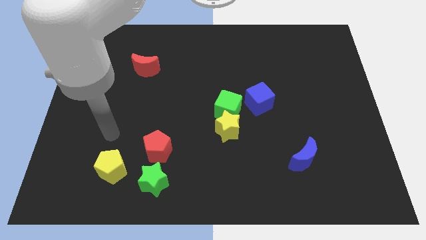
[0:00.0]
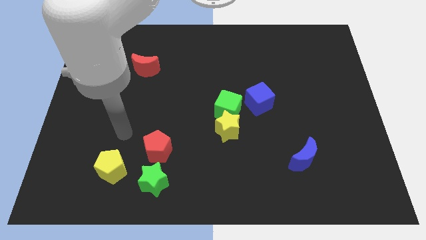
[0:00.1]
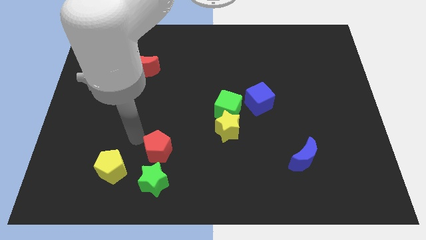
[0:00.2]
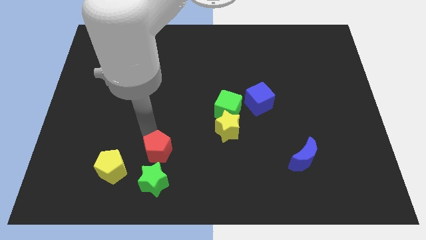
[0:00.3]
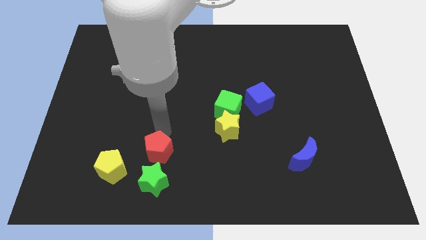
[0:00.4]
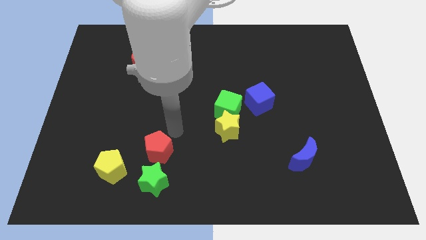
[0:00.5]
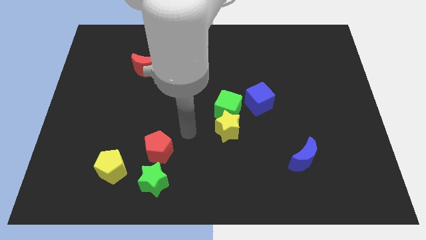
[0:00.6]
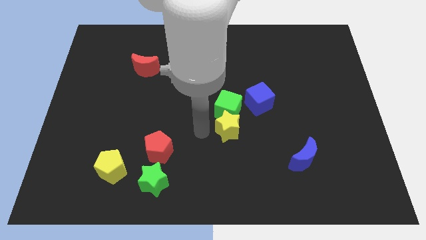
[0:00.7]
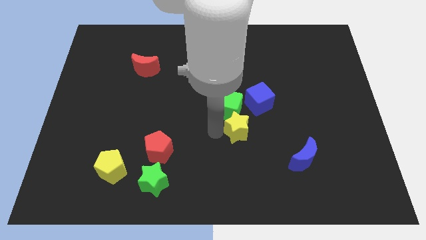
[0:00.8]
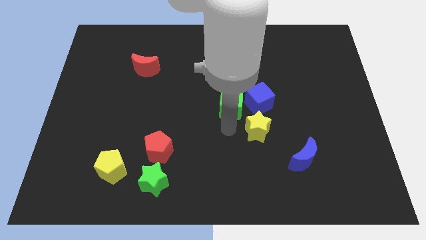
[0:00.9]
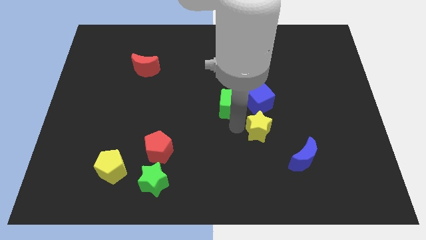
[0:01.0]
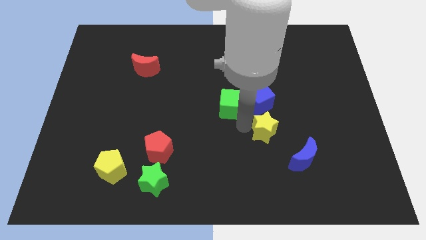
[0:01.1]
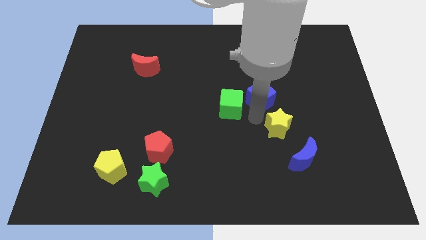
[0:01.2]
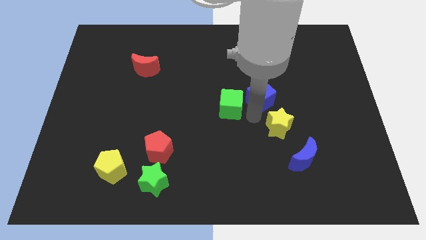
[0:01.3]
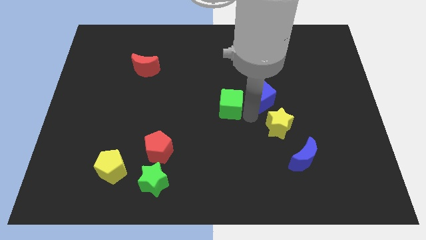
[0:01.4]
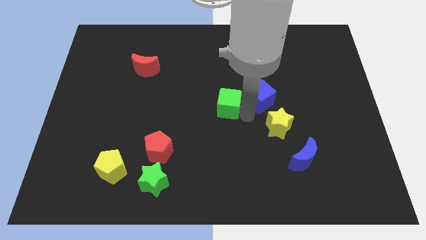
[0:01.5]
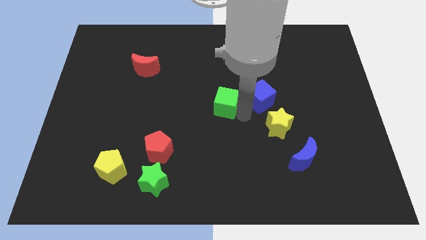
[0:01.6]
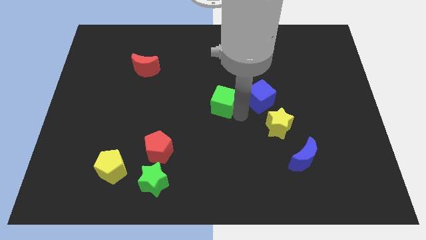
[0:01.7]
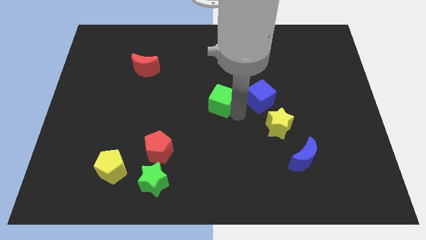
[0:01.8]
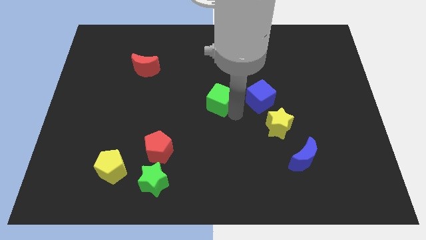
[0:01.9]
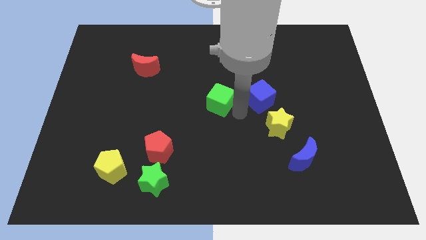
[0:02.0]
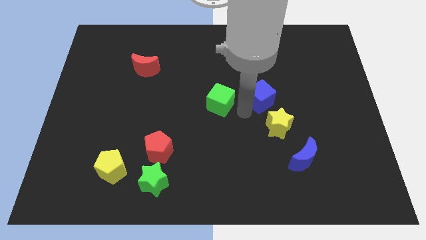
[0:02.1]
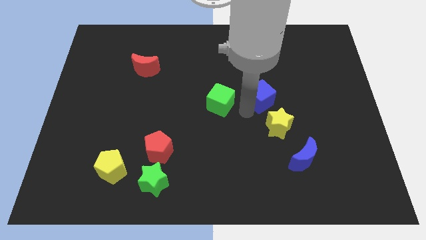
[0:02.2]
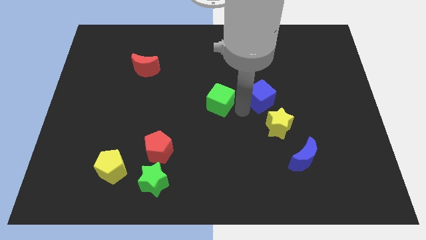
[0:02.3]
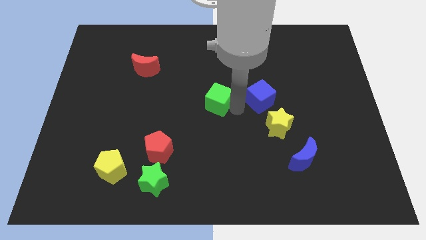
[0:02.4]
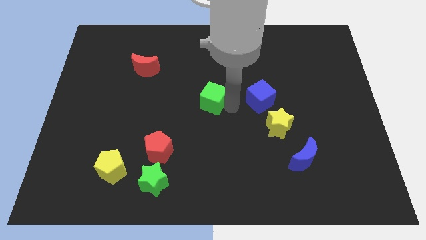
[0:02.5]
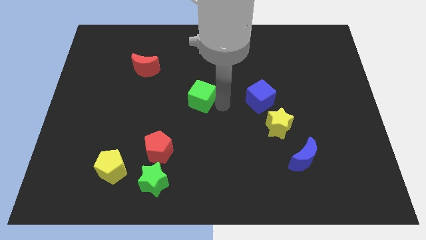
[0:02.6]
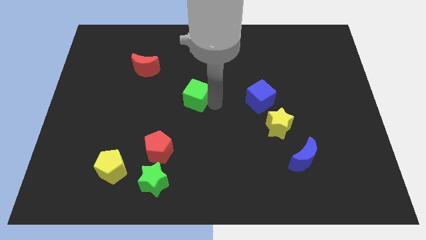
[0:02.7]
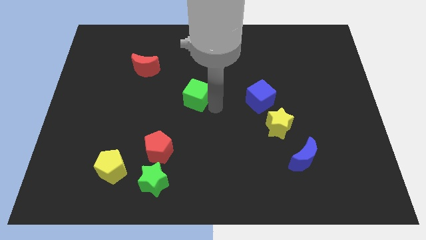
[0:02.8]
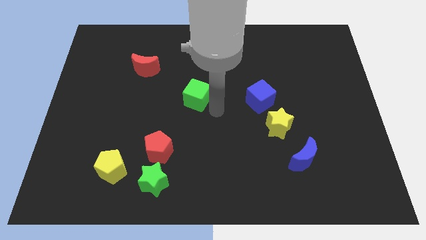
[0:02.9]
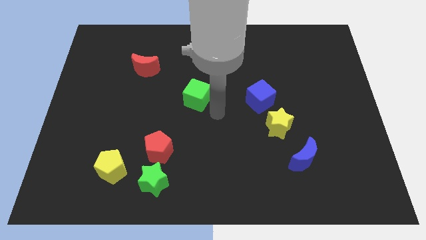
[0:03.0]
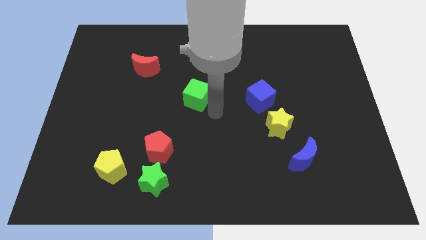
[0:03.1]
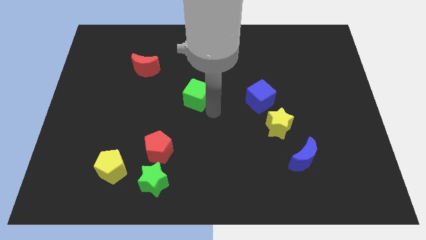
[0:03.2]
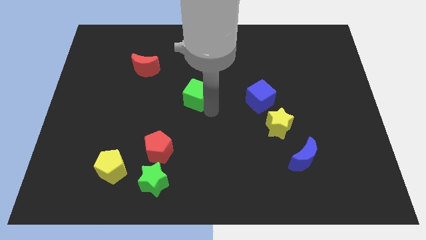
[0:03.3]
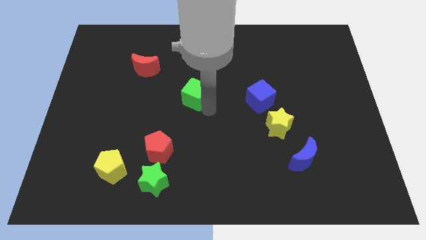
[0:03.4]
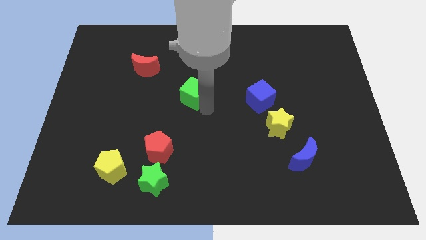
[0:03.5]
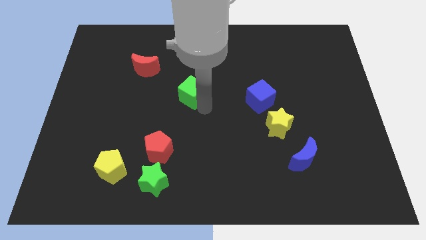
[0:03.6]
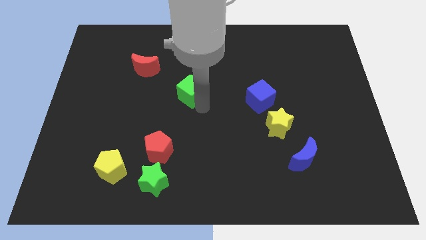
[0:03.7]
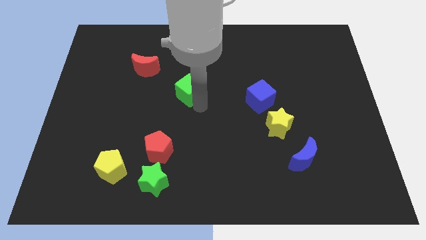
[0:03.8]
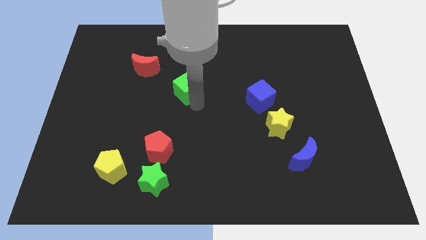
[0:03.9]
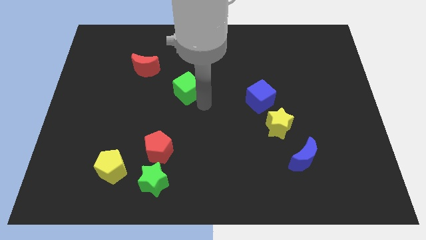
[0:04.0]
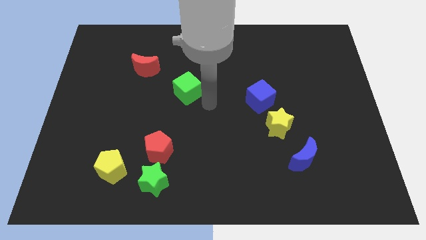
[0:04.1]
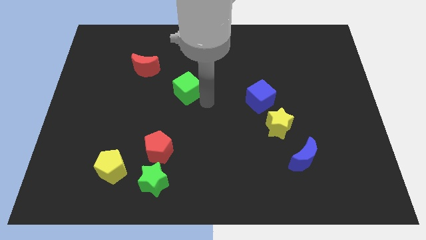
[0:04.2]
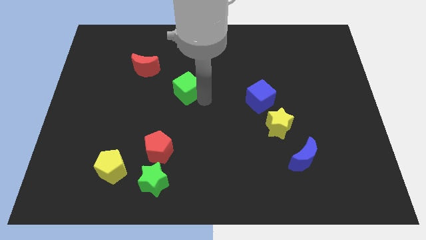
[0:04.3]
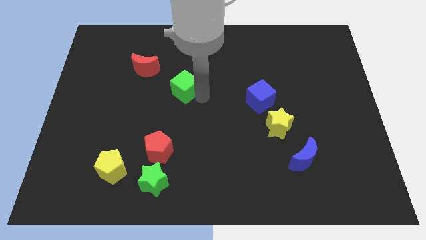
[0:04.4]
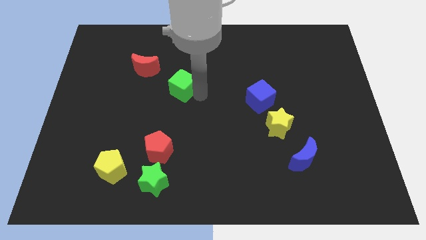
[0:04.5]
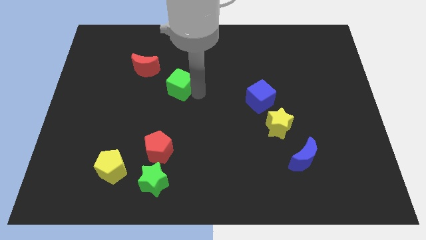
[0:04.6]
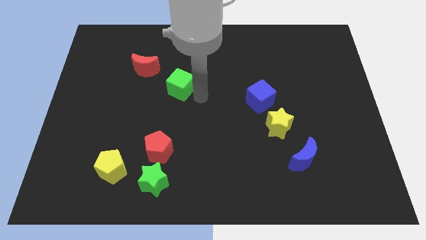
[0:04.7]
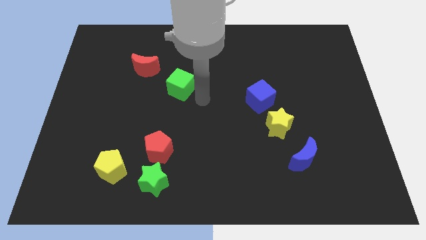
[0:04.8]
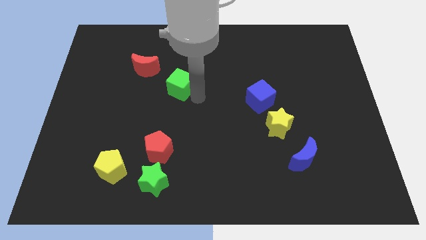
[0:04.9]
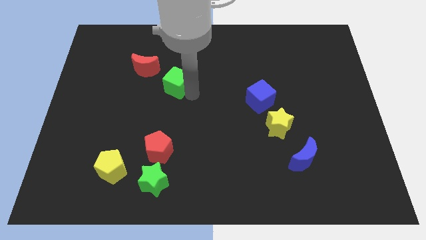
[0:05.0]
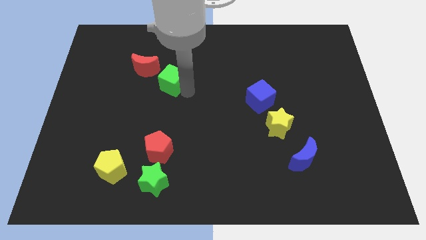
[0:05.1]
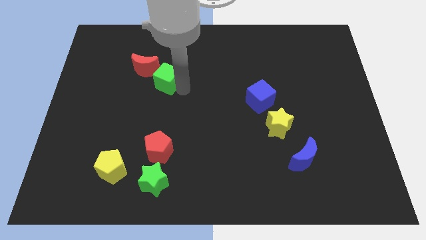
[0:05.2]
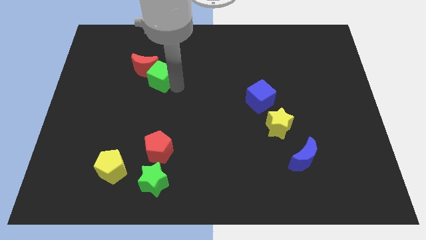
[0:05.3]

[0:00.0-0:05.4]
push the green cube towards the red moon

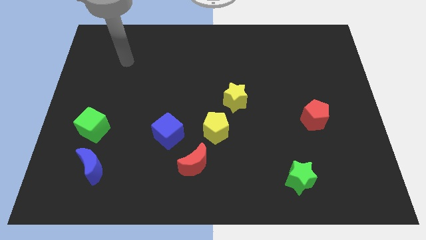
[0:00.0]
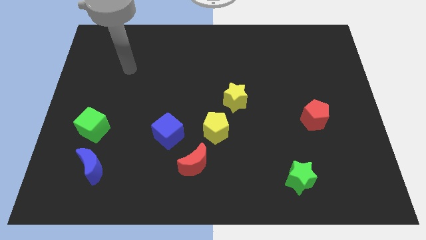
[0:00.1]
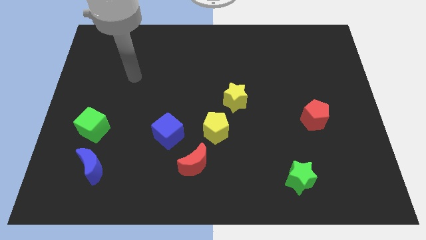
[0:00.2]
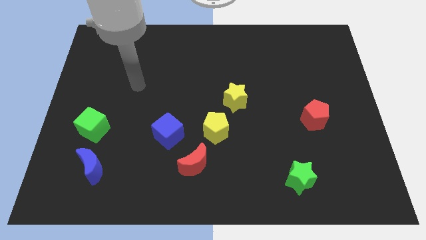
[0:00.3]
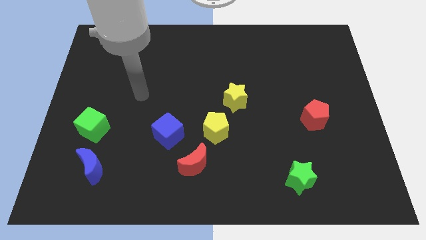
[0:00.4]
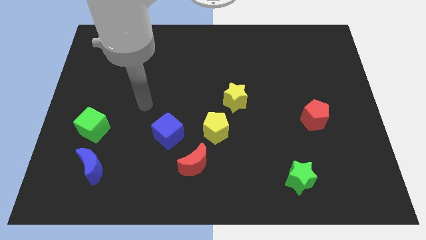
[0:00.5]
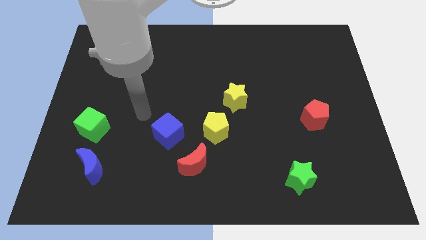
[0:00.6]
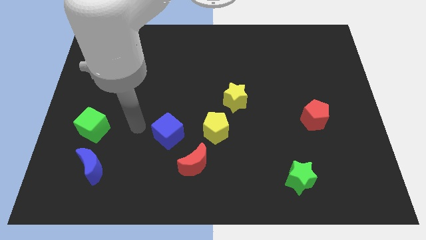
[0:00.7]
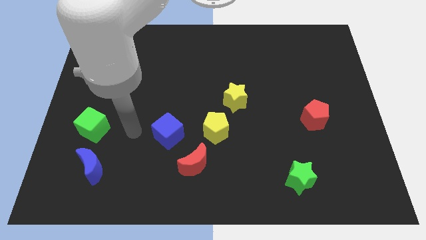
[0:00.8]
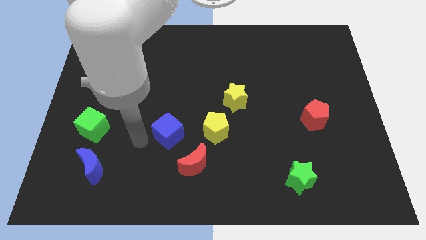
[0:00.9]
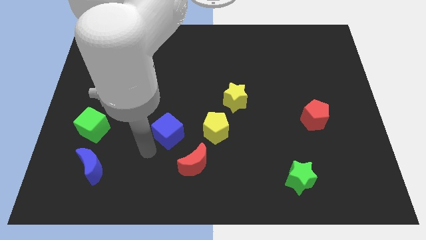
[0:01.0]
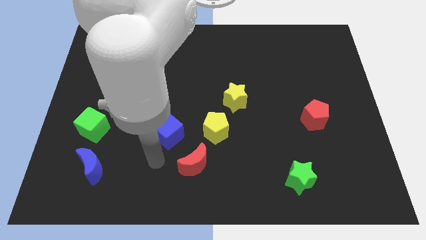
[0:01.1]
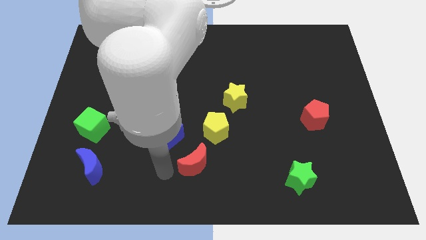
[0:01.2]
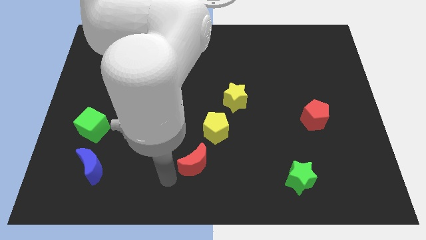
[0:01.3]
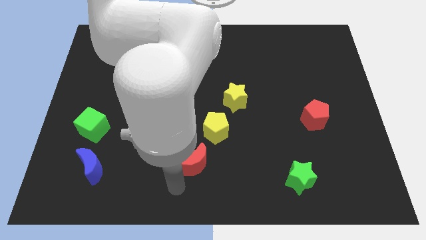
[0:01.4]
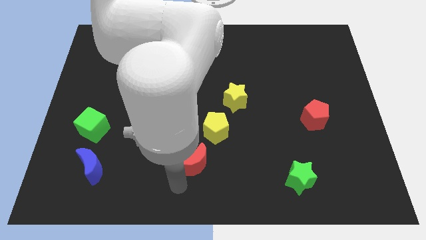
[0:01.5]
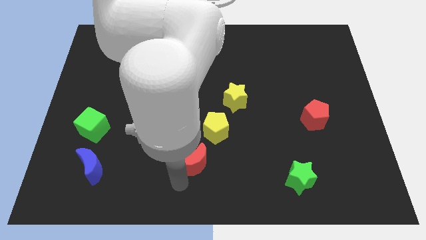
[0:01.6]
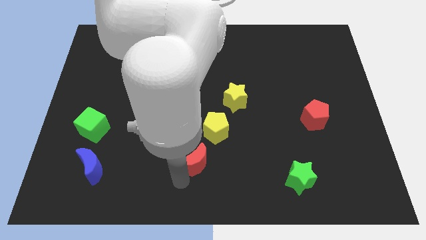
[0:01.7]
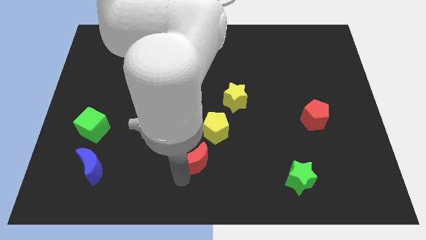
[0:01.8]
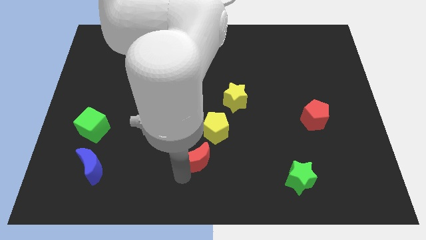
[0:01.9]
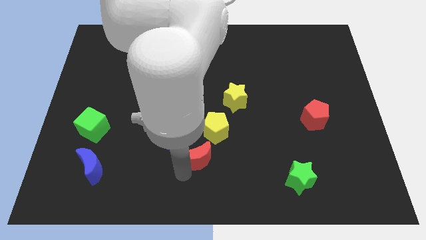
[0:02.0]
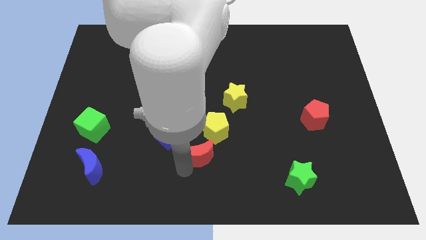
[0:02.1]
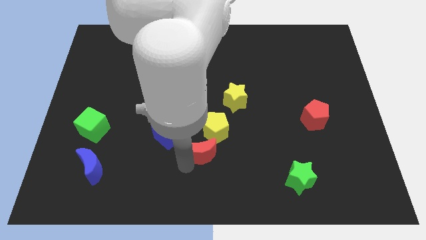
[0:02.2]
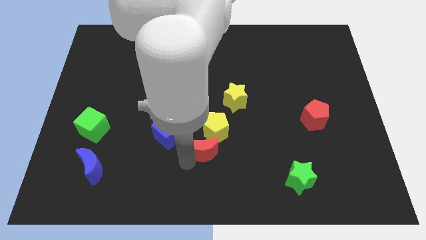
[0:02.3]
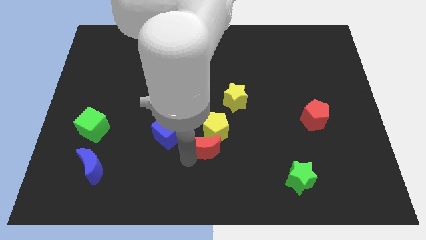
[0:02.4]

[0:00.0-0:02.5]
slide the red moon towards the yellow pentagon

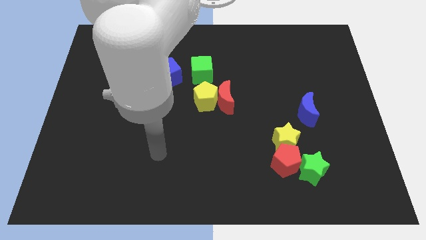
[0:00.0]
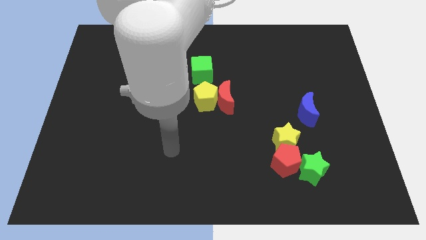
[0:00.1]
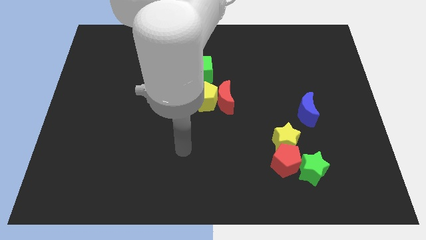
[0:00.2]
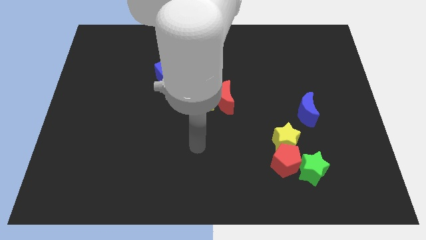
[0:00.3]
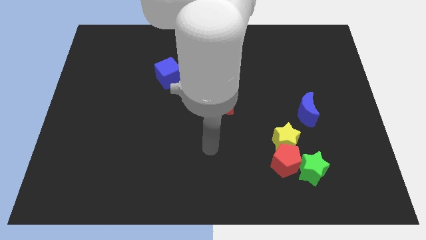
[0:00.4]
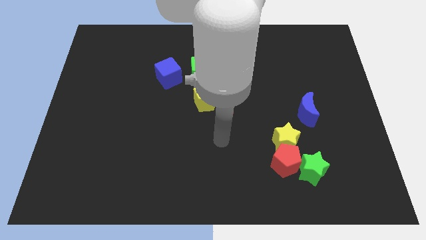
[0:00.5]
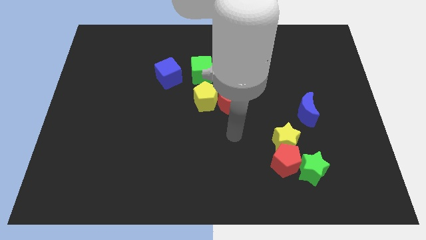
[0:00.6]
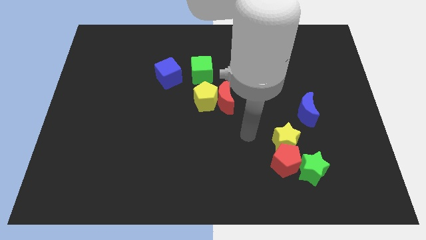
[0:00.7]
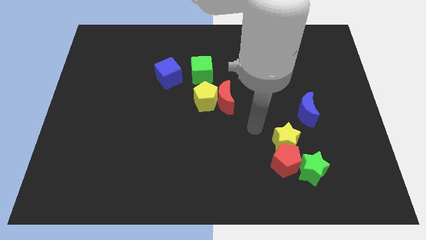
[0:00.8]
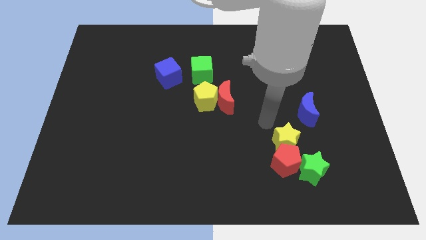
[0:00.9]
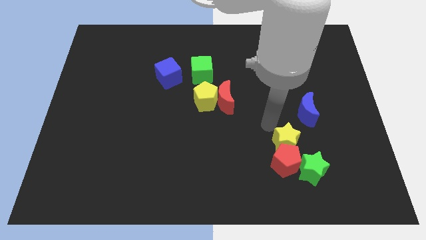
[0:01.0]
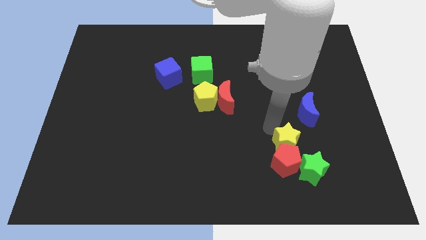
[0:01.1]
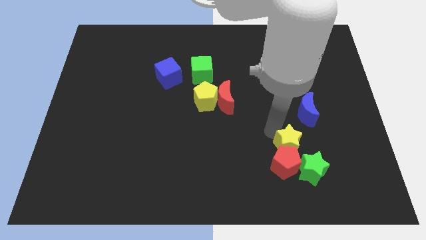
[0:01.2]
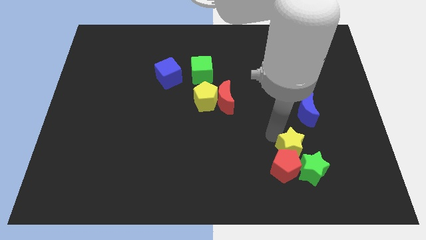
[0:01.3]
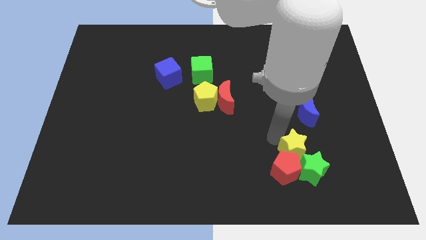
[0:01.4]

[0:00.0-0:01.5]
slide the yellow star next to the green star
